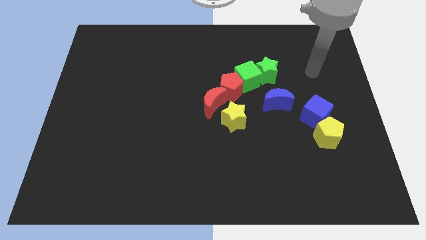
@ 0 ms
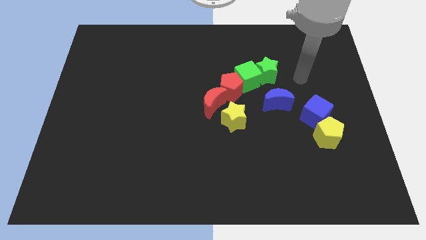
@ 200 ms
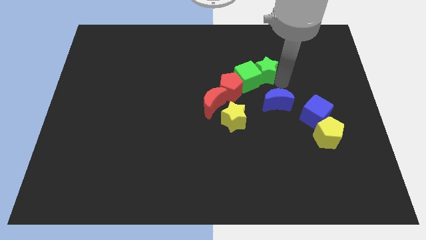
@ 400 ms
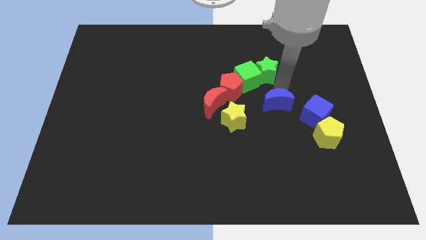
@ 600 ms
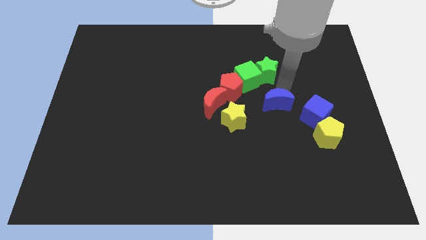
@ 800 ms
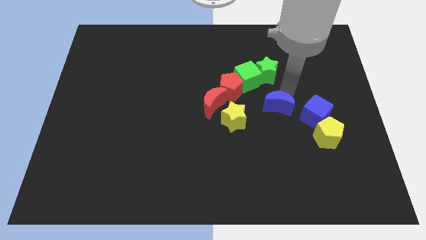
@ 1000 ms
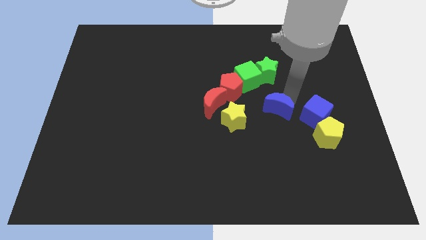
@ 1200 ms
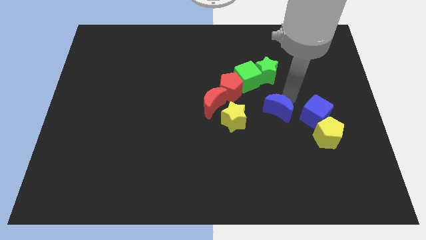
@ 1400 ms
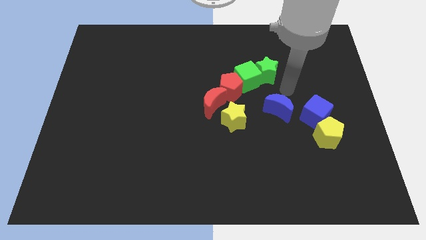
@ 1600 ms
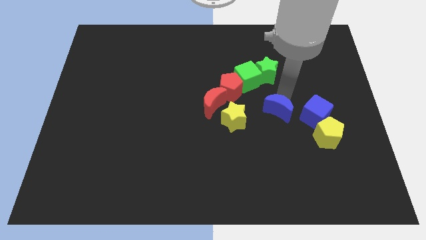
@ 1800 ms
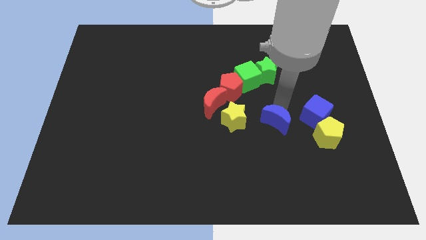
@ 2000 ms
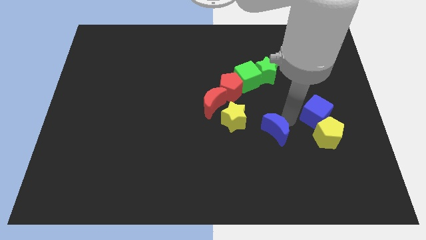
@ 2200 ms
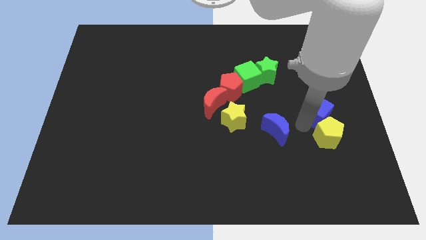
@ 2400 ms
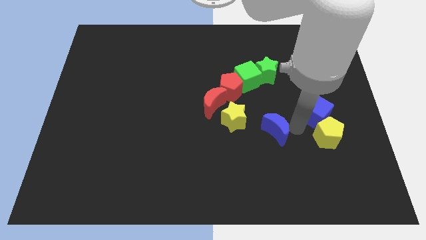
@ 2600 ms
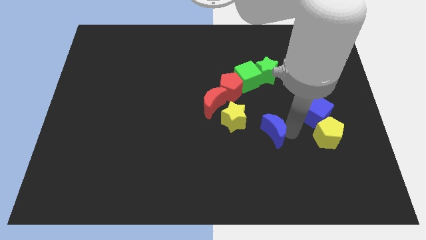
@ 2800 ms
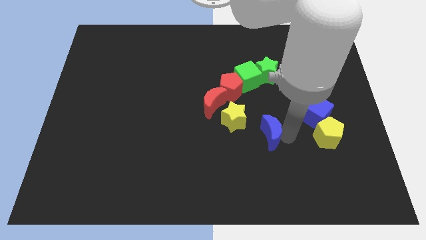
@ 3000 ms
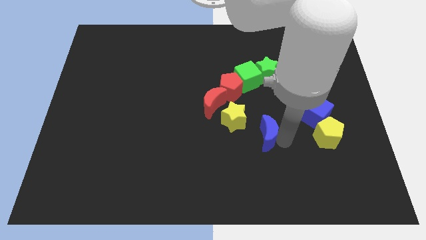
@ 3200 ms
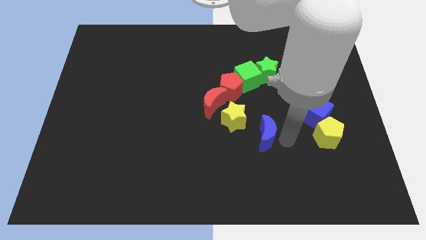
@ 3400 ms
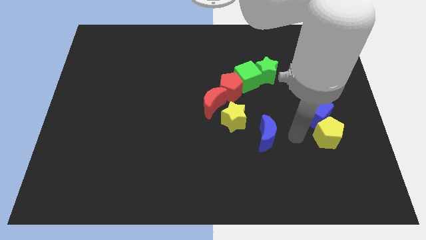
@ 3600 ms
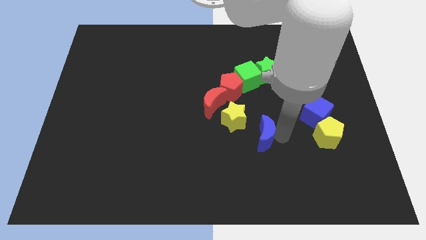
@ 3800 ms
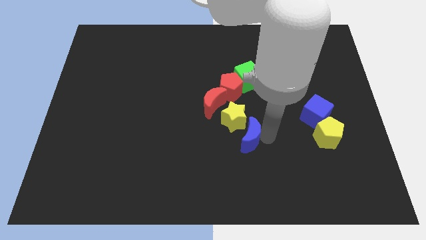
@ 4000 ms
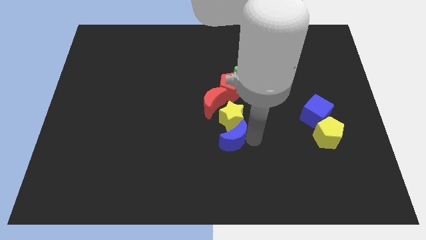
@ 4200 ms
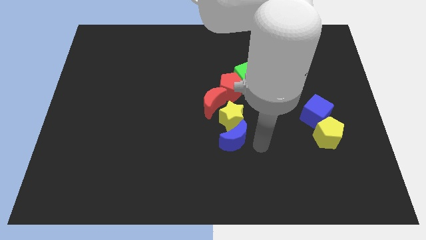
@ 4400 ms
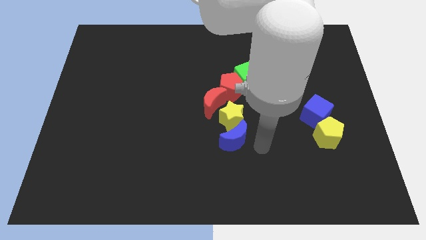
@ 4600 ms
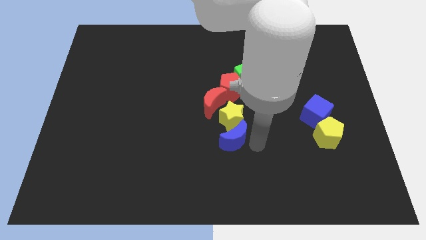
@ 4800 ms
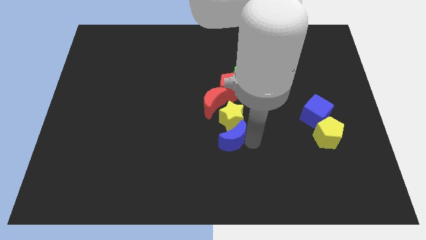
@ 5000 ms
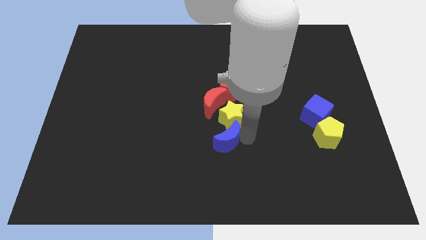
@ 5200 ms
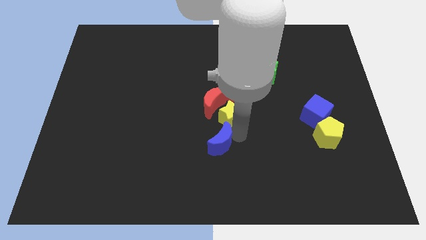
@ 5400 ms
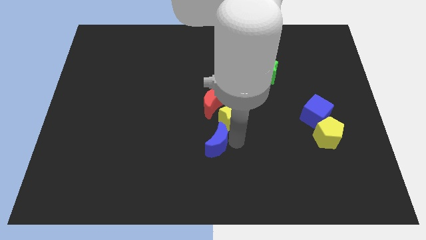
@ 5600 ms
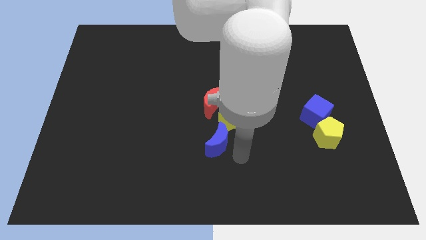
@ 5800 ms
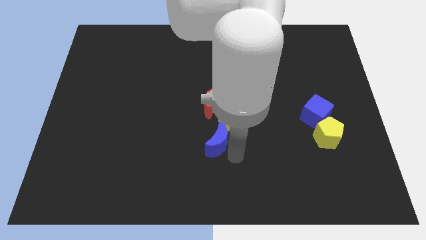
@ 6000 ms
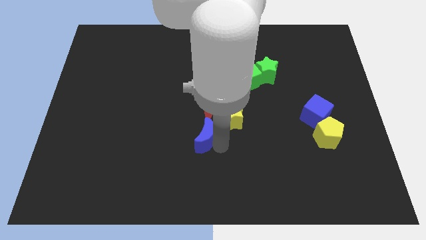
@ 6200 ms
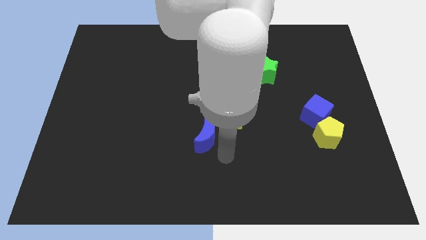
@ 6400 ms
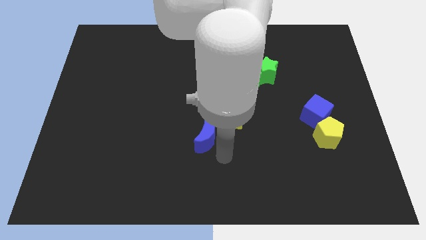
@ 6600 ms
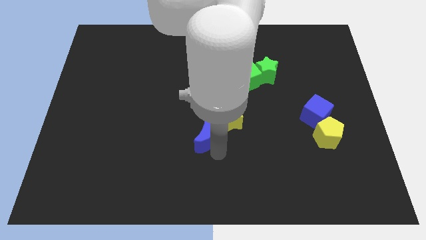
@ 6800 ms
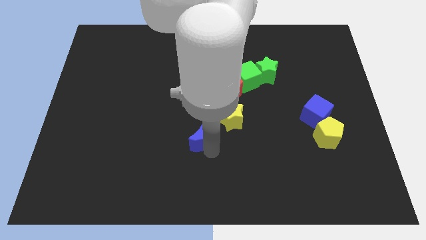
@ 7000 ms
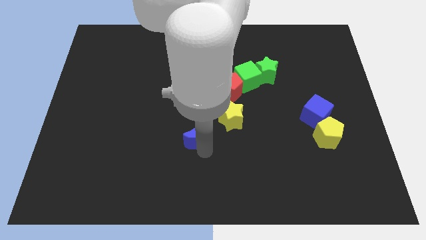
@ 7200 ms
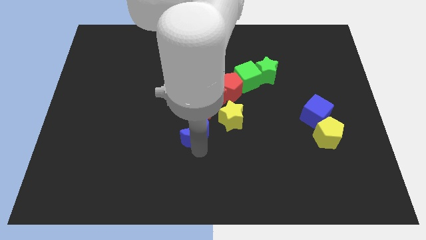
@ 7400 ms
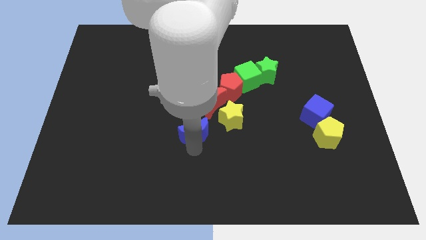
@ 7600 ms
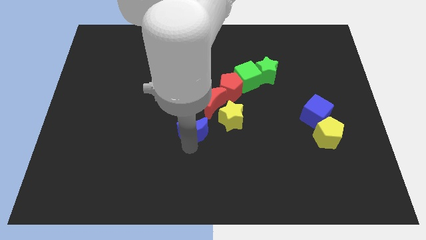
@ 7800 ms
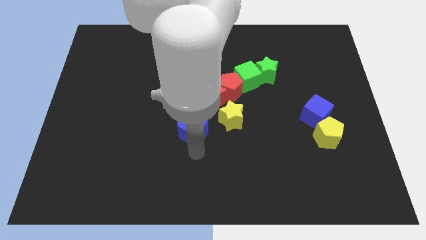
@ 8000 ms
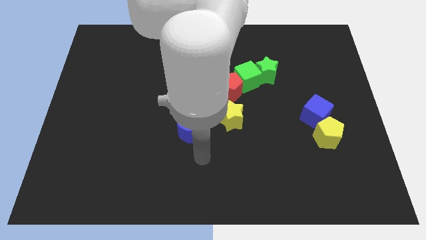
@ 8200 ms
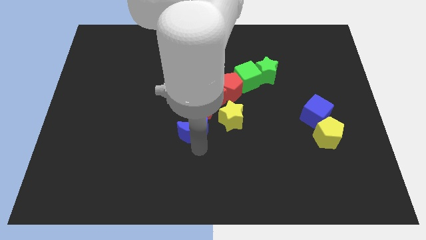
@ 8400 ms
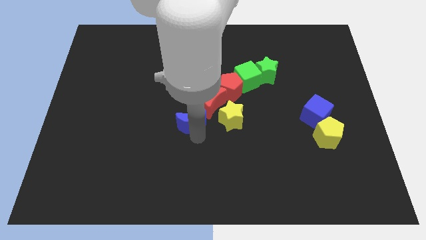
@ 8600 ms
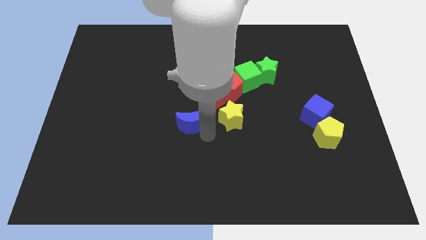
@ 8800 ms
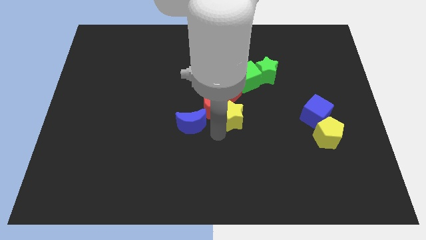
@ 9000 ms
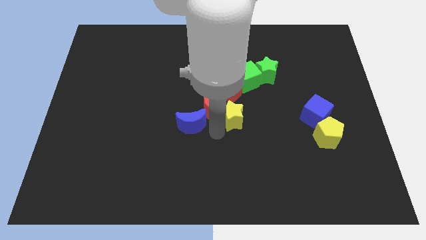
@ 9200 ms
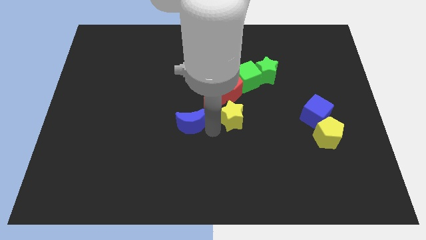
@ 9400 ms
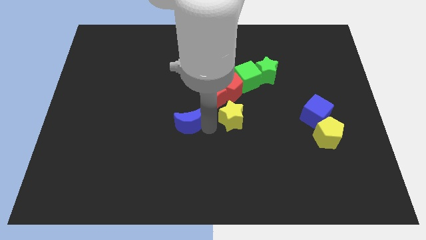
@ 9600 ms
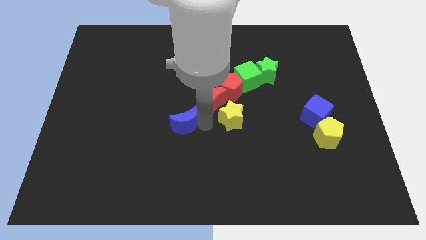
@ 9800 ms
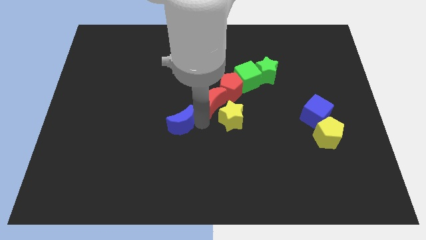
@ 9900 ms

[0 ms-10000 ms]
move the blue moon to the left

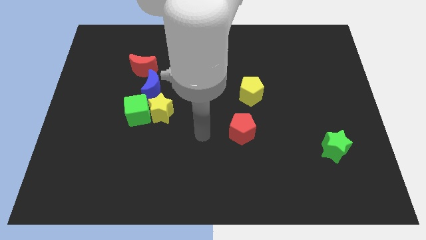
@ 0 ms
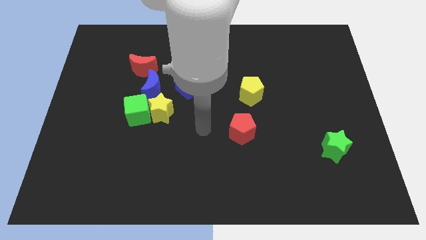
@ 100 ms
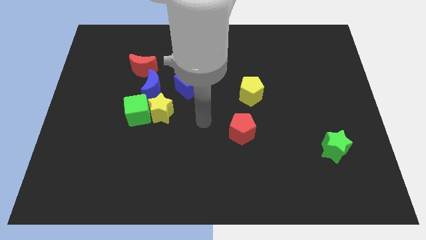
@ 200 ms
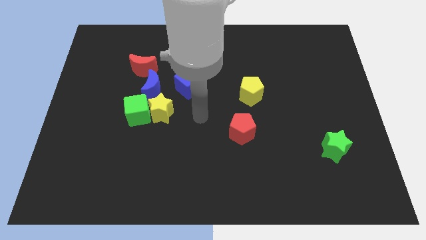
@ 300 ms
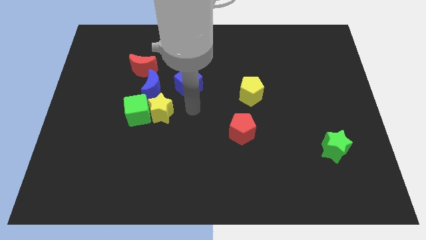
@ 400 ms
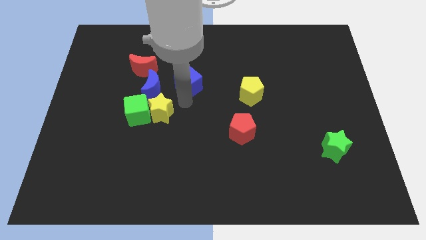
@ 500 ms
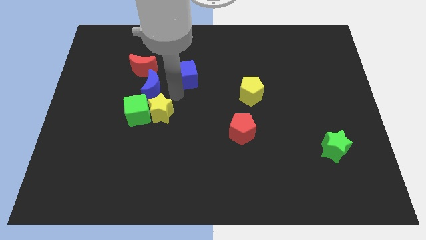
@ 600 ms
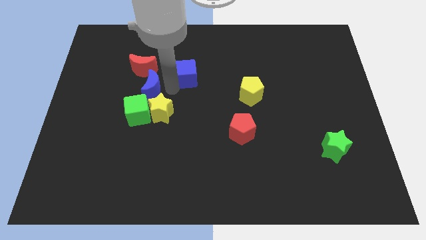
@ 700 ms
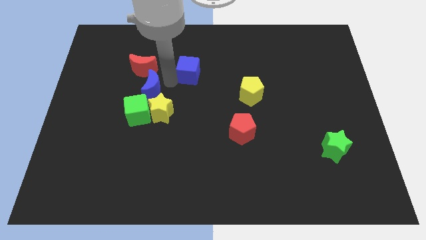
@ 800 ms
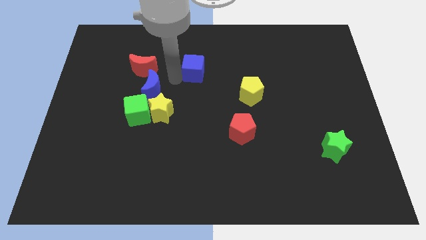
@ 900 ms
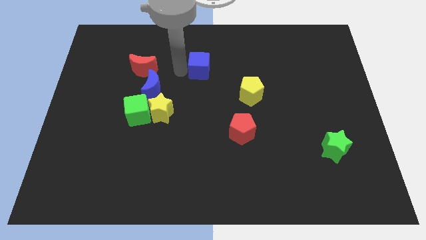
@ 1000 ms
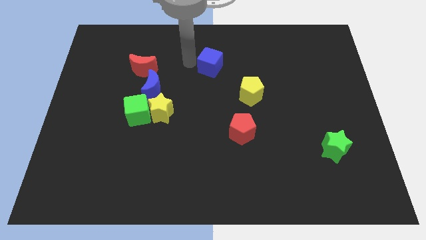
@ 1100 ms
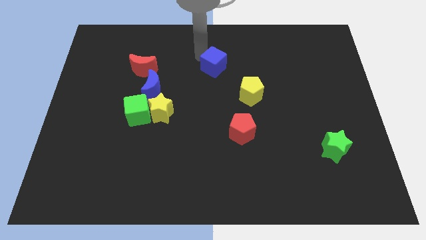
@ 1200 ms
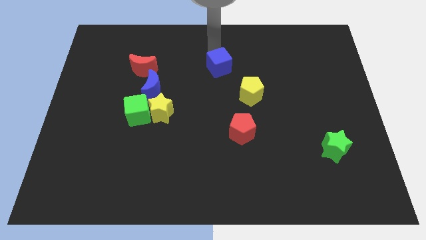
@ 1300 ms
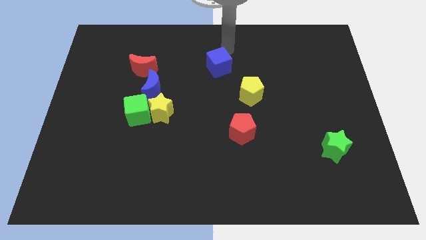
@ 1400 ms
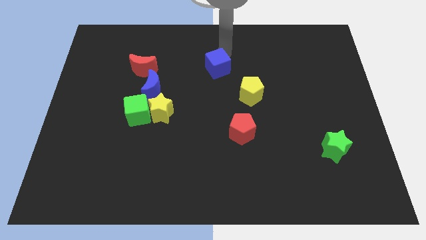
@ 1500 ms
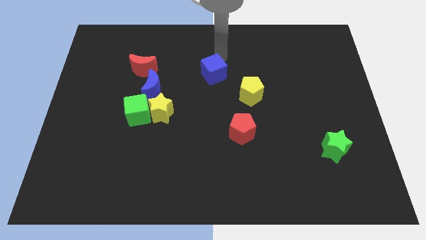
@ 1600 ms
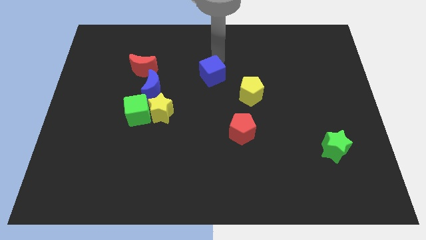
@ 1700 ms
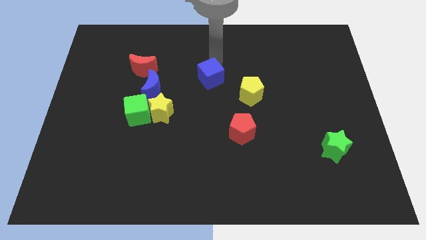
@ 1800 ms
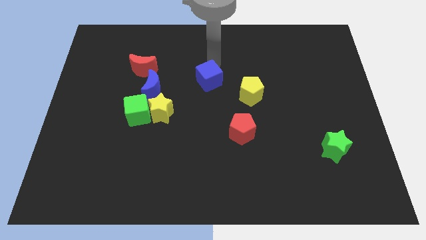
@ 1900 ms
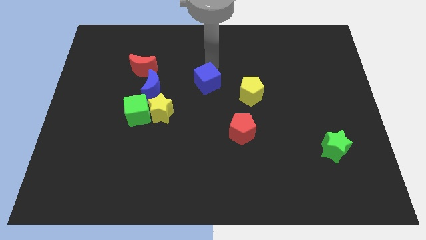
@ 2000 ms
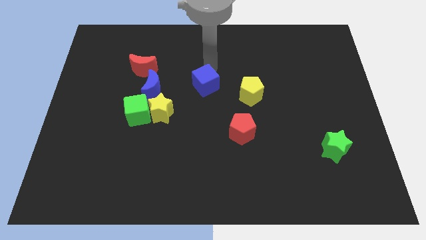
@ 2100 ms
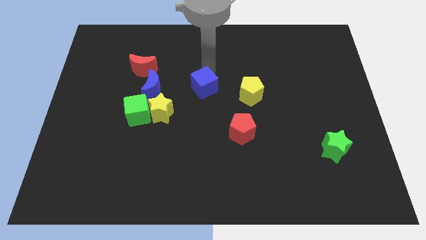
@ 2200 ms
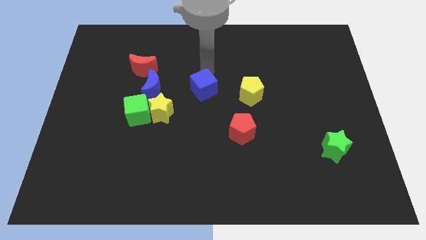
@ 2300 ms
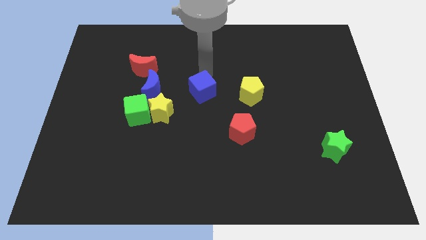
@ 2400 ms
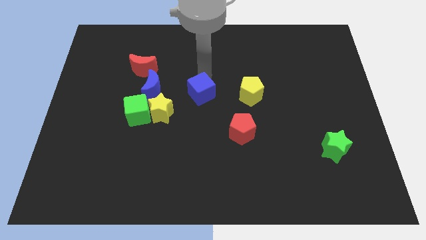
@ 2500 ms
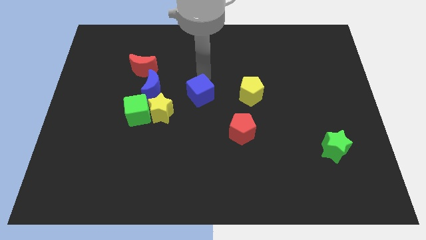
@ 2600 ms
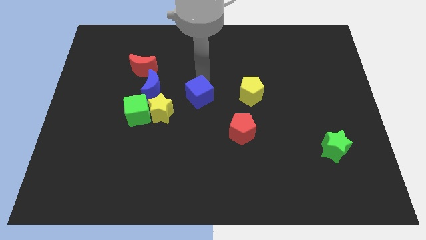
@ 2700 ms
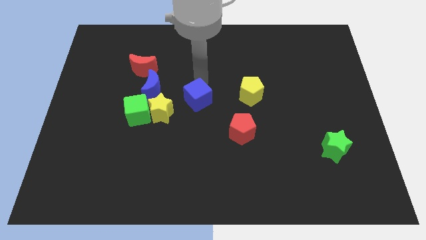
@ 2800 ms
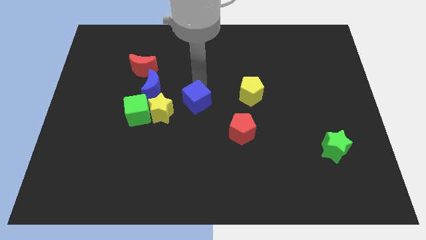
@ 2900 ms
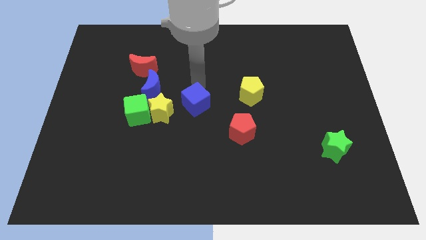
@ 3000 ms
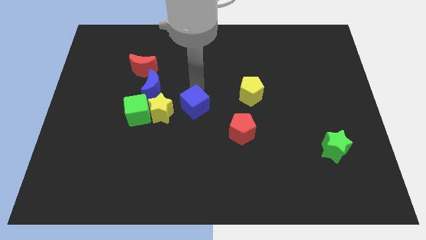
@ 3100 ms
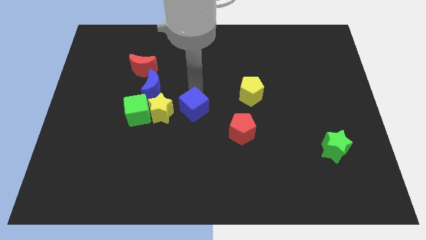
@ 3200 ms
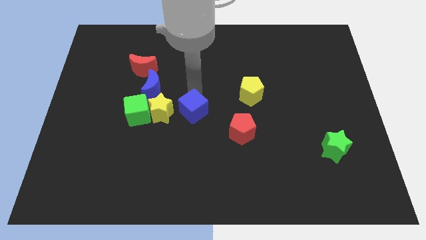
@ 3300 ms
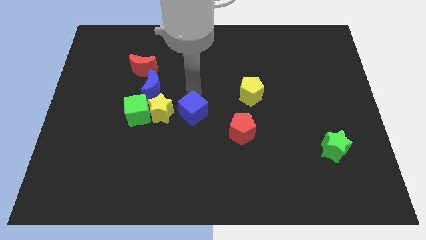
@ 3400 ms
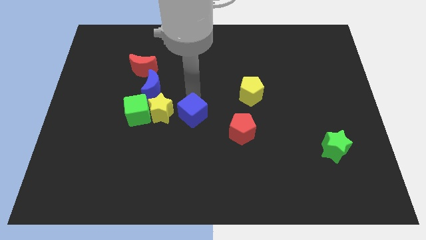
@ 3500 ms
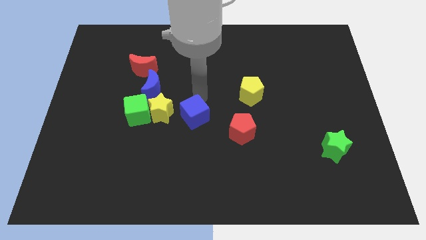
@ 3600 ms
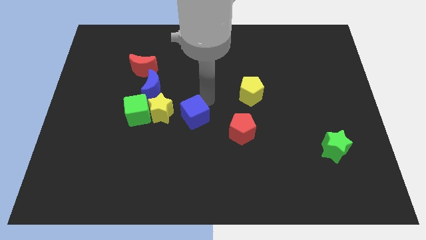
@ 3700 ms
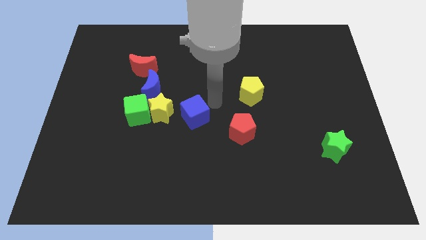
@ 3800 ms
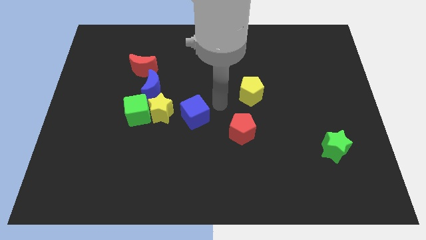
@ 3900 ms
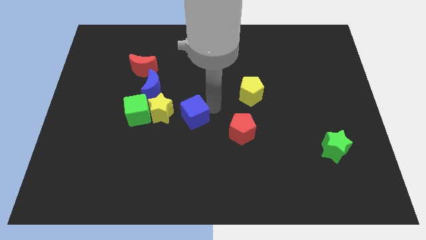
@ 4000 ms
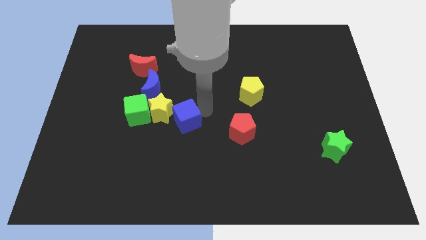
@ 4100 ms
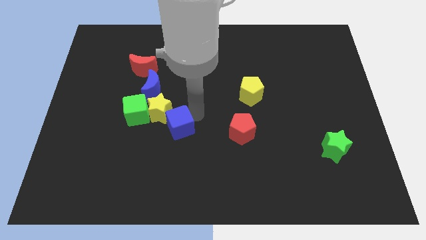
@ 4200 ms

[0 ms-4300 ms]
slightly push the blue cube downwards and left diagonally
